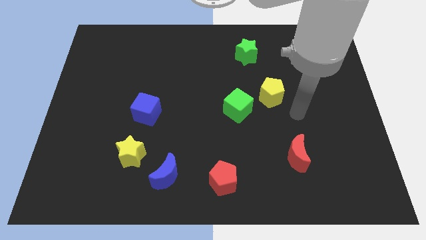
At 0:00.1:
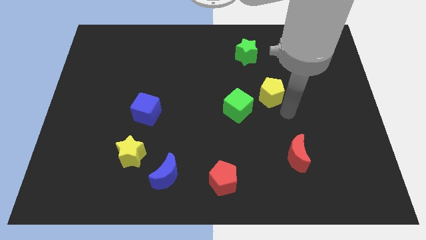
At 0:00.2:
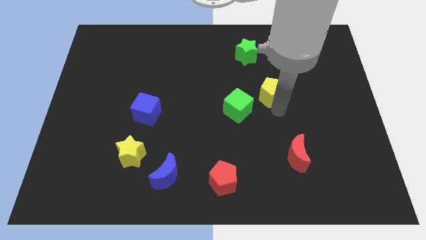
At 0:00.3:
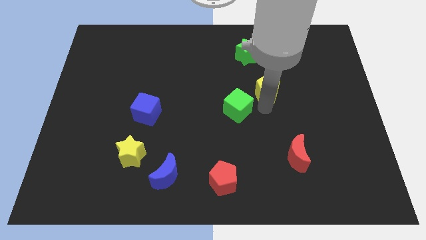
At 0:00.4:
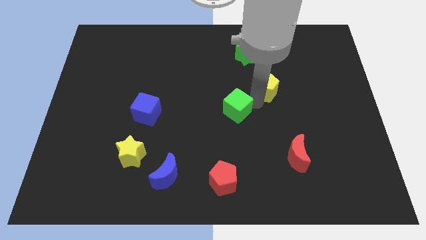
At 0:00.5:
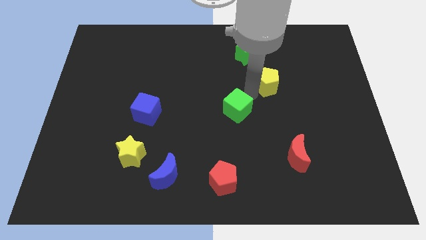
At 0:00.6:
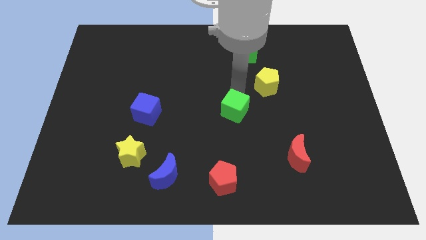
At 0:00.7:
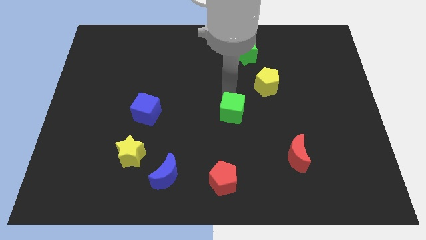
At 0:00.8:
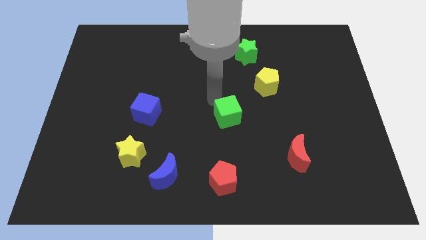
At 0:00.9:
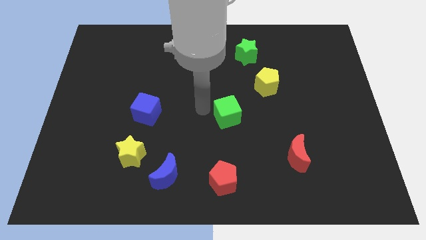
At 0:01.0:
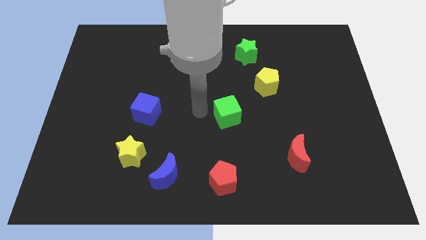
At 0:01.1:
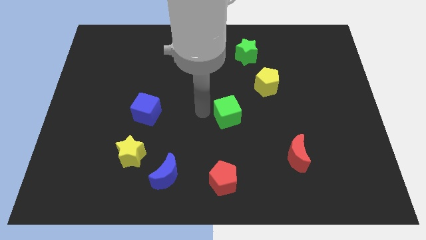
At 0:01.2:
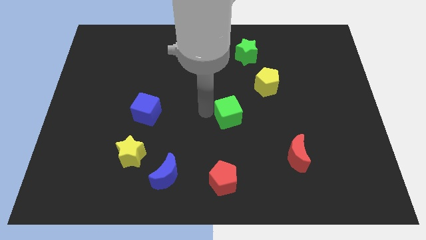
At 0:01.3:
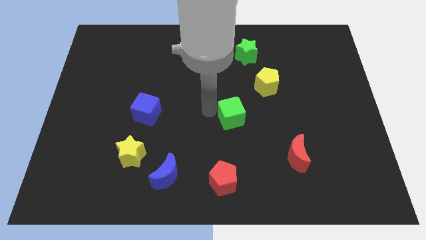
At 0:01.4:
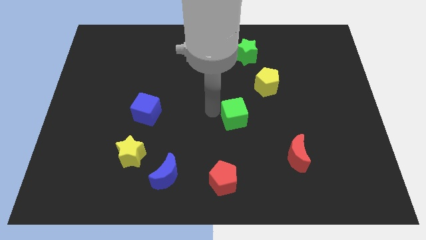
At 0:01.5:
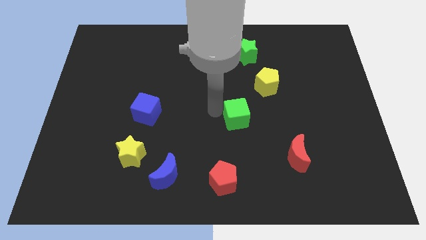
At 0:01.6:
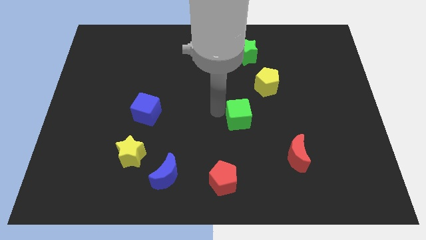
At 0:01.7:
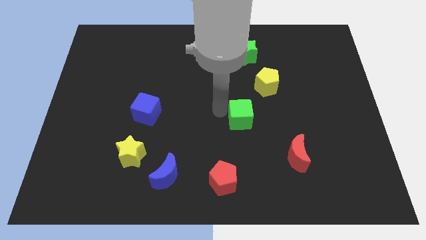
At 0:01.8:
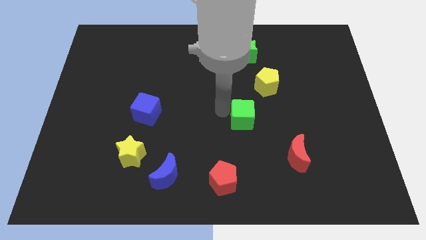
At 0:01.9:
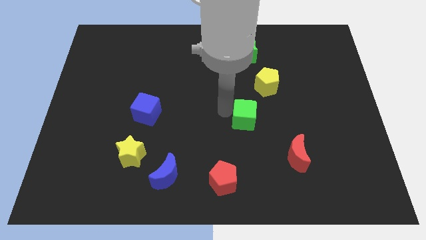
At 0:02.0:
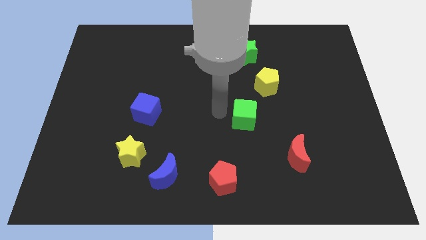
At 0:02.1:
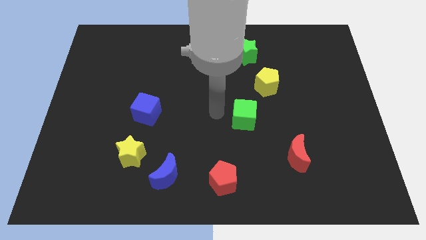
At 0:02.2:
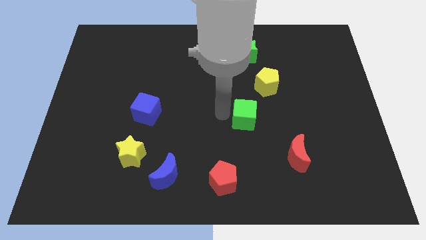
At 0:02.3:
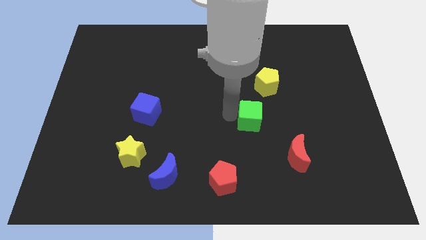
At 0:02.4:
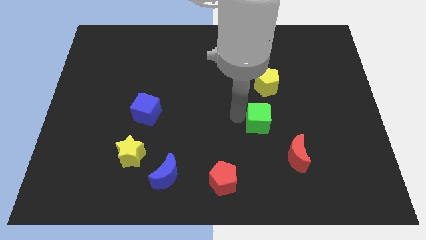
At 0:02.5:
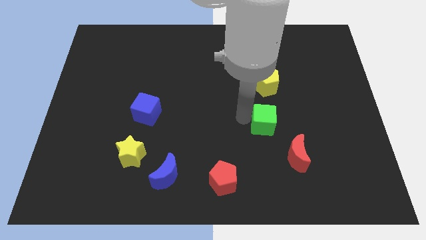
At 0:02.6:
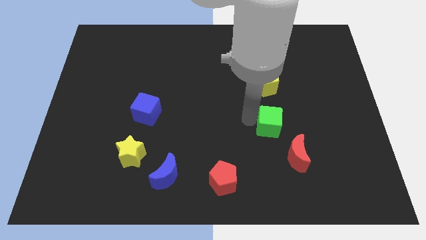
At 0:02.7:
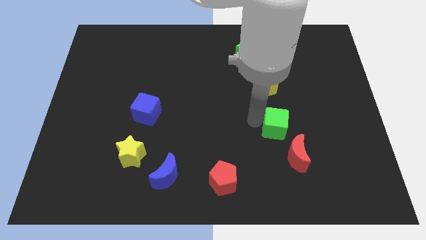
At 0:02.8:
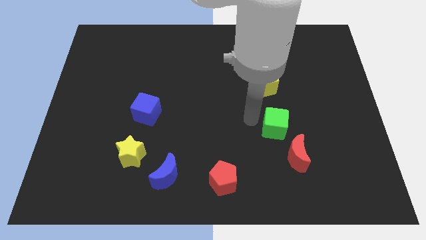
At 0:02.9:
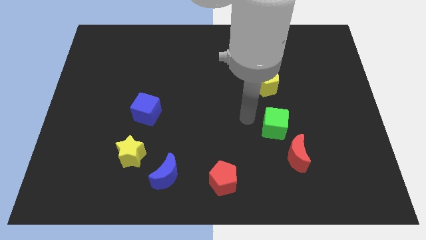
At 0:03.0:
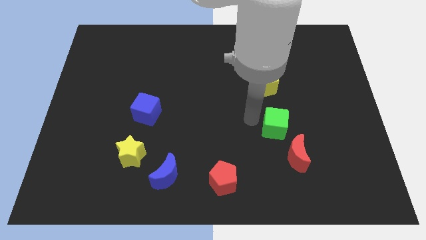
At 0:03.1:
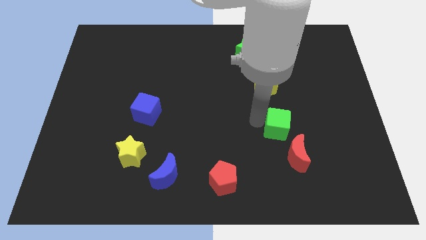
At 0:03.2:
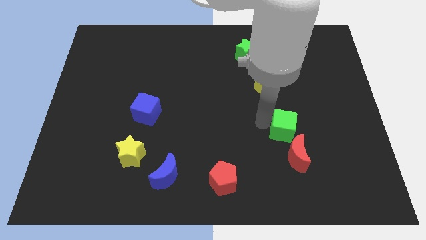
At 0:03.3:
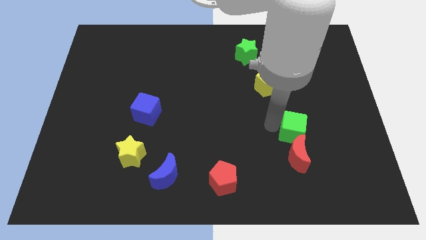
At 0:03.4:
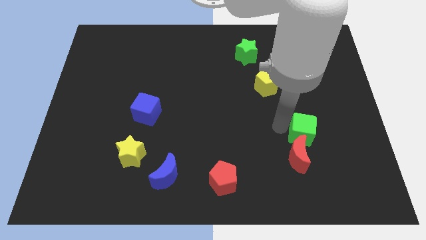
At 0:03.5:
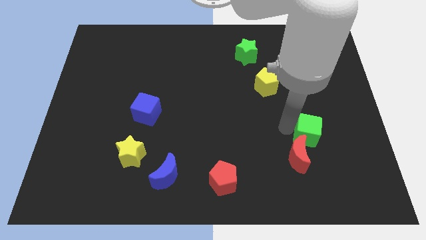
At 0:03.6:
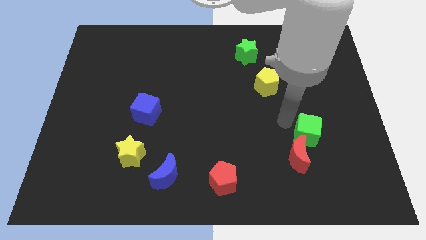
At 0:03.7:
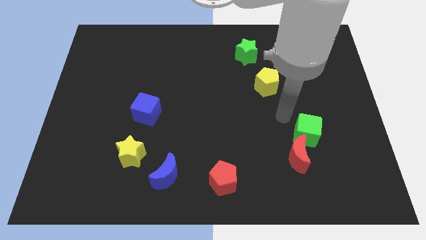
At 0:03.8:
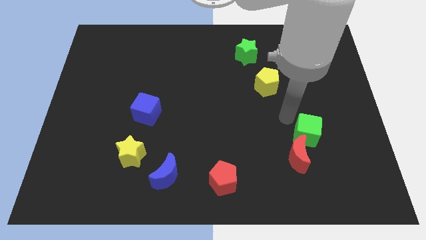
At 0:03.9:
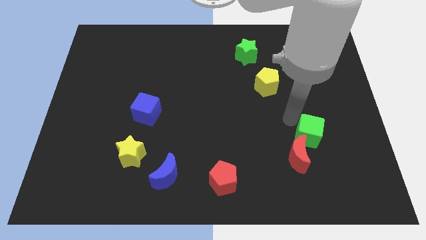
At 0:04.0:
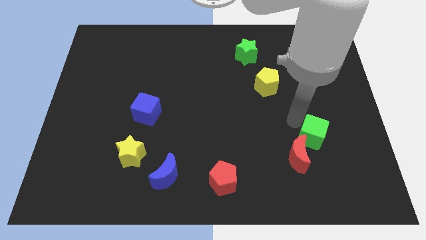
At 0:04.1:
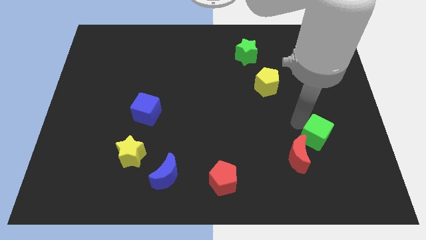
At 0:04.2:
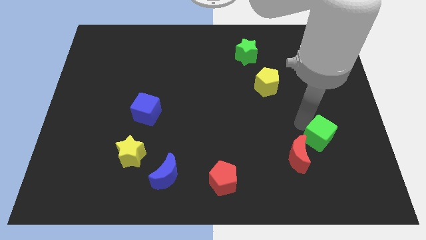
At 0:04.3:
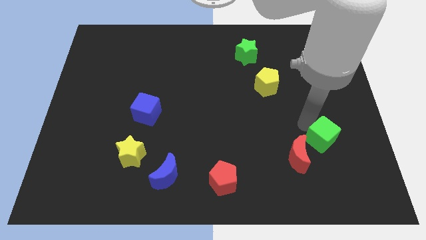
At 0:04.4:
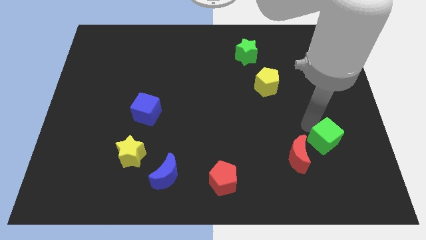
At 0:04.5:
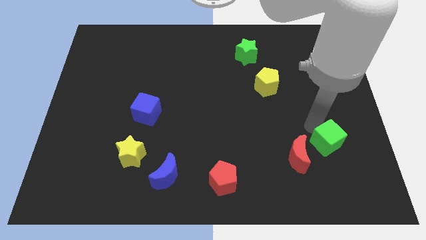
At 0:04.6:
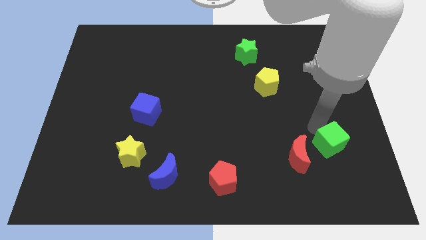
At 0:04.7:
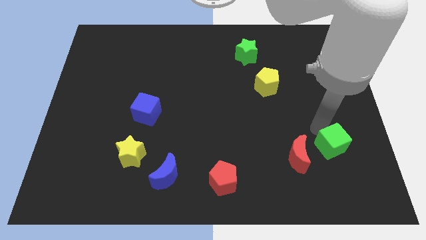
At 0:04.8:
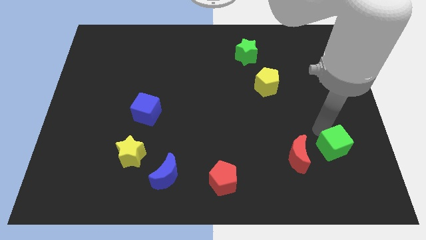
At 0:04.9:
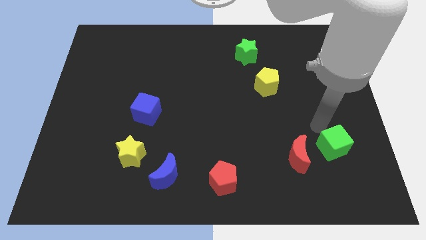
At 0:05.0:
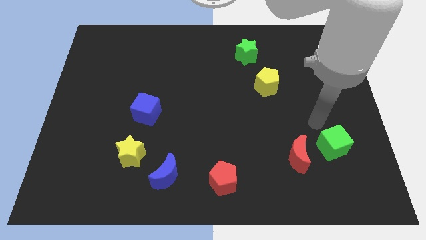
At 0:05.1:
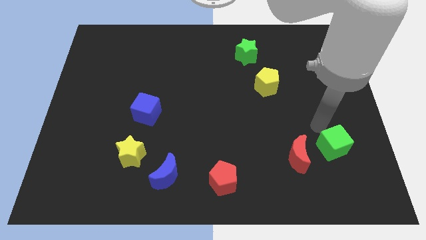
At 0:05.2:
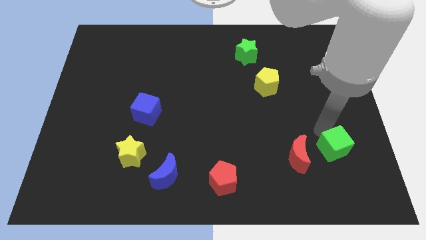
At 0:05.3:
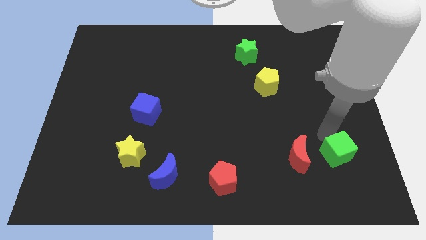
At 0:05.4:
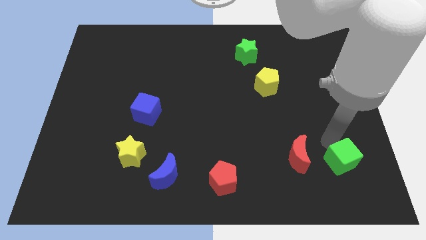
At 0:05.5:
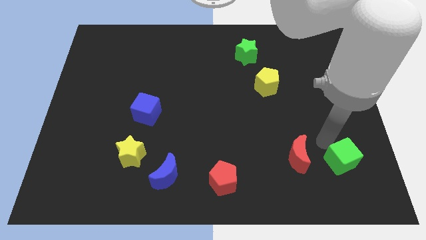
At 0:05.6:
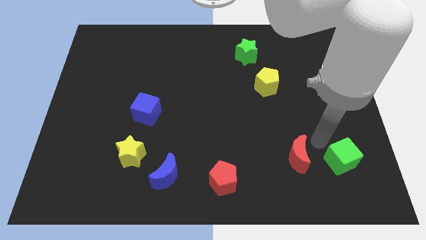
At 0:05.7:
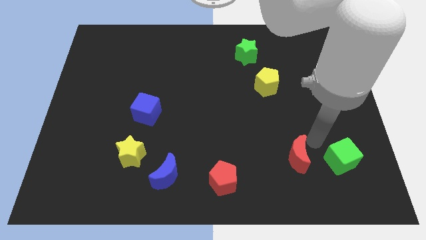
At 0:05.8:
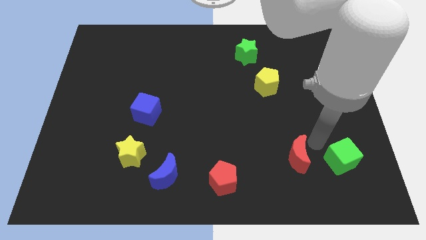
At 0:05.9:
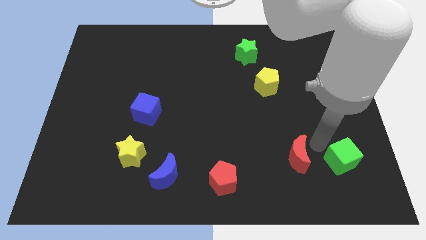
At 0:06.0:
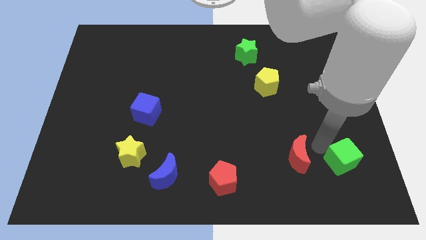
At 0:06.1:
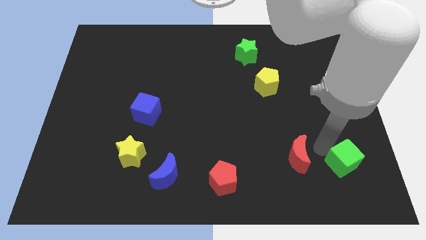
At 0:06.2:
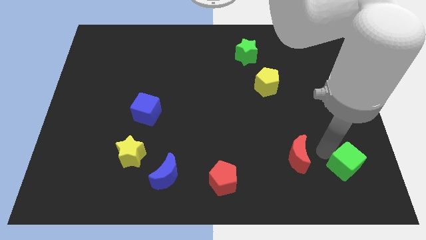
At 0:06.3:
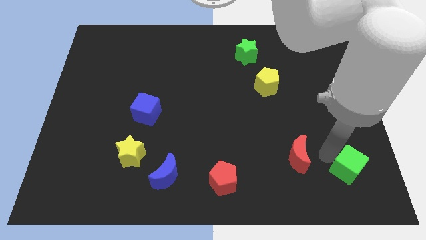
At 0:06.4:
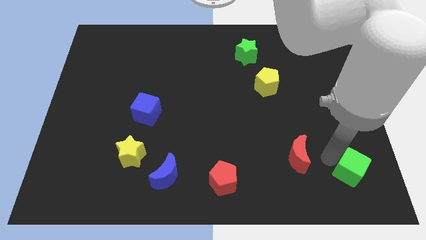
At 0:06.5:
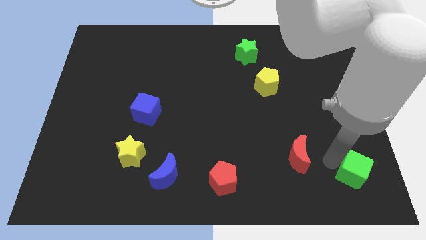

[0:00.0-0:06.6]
move the green cube to the bottom right
